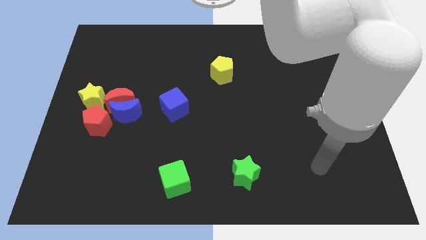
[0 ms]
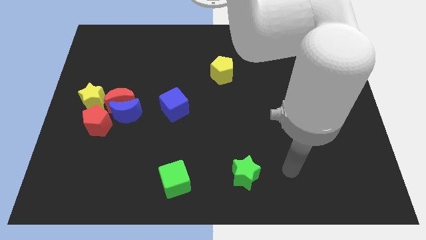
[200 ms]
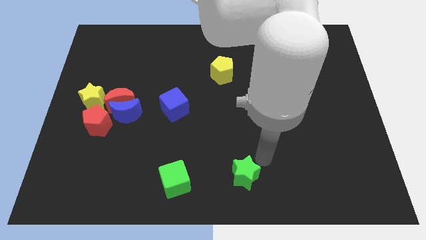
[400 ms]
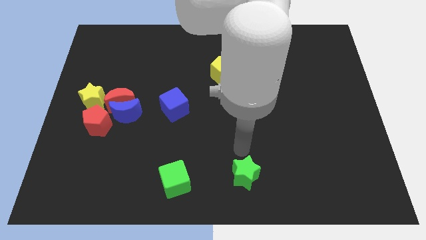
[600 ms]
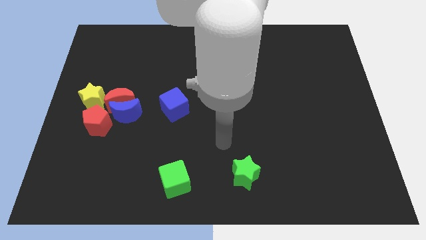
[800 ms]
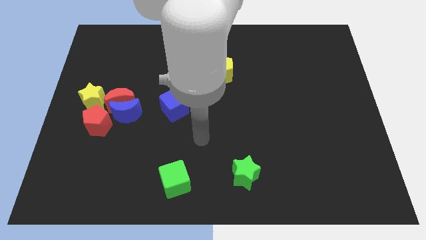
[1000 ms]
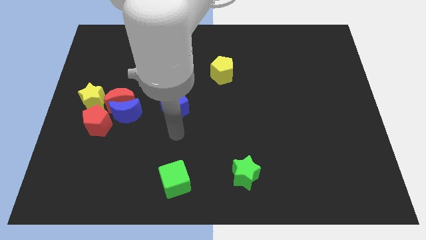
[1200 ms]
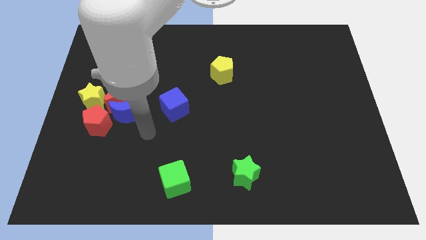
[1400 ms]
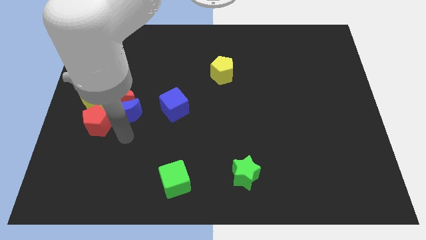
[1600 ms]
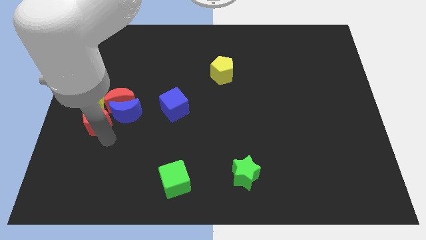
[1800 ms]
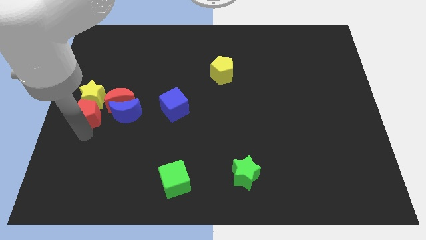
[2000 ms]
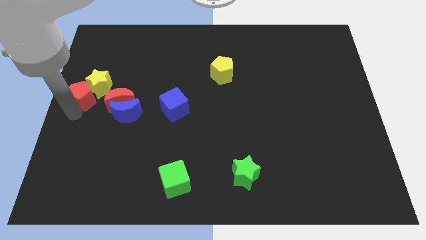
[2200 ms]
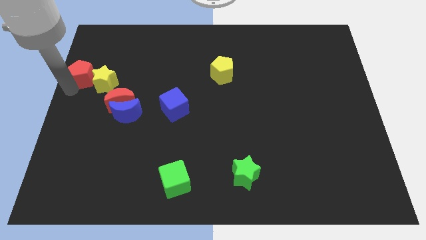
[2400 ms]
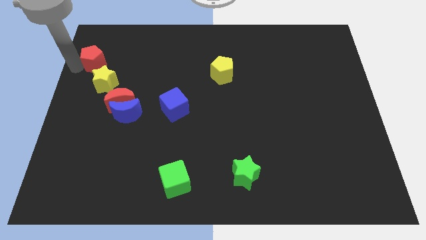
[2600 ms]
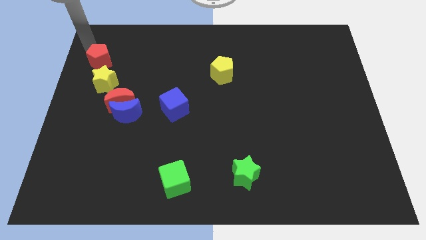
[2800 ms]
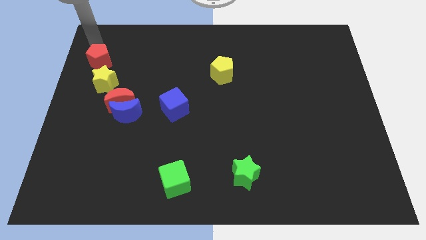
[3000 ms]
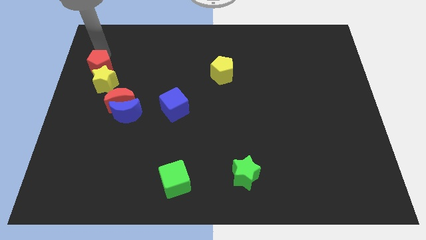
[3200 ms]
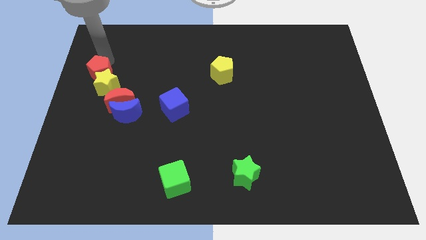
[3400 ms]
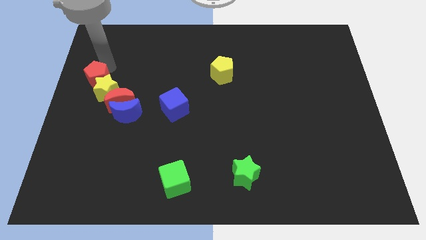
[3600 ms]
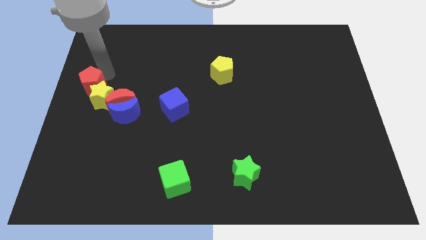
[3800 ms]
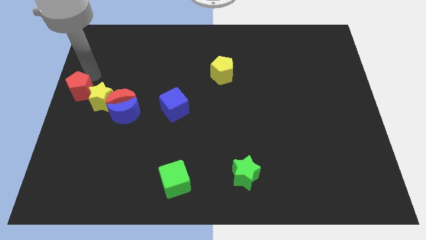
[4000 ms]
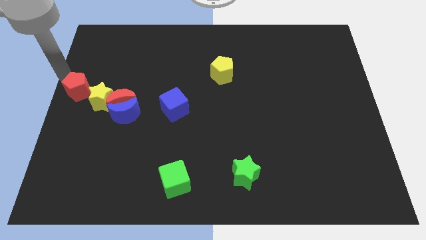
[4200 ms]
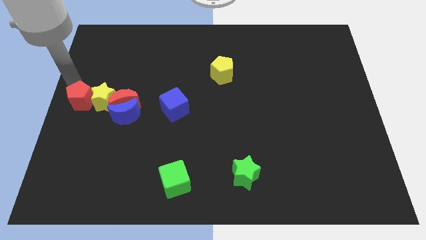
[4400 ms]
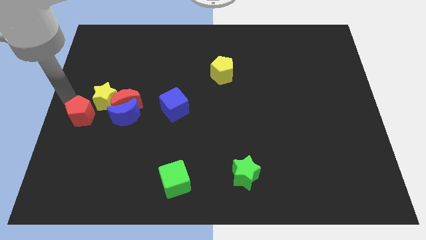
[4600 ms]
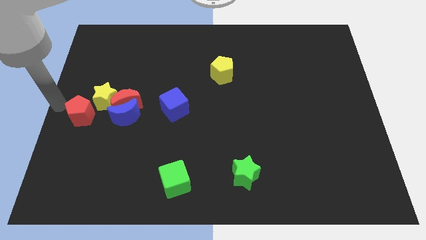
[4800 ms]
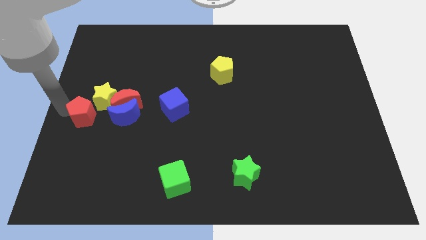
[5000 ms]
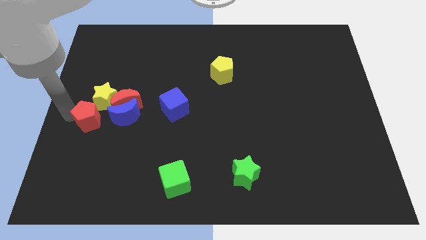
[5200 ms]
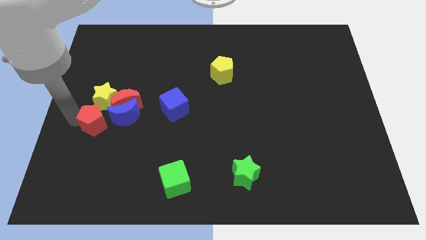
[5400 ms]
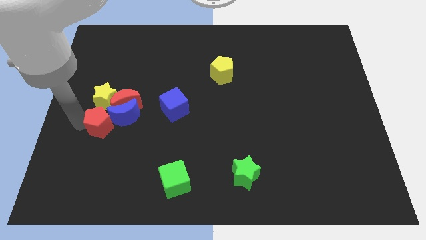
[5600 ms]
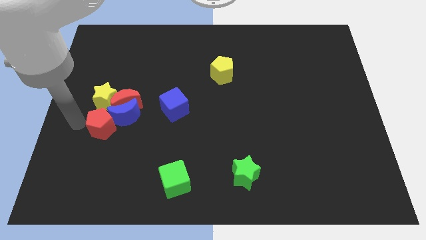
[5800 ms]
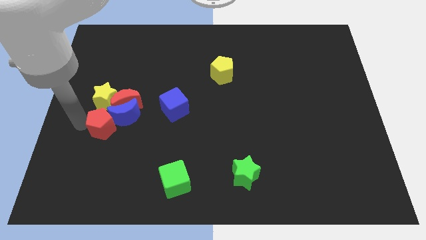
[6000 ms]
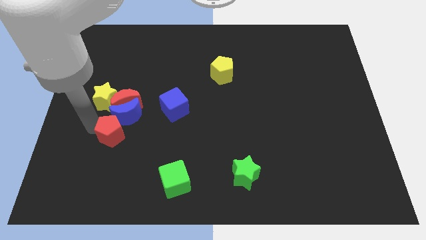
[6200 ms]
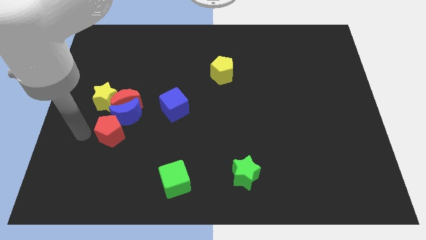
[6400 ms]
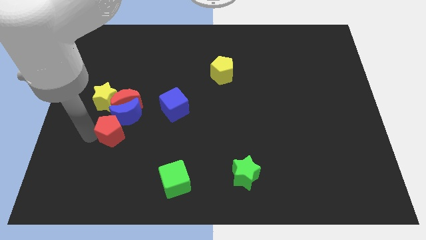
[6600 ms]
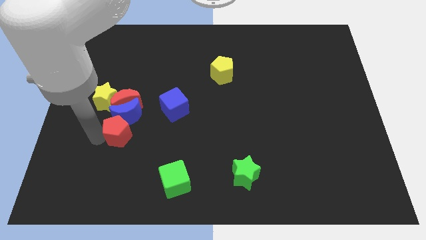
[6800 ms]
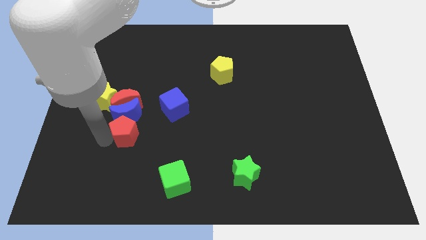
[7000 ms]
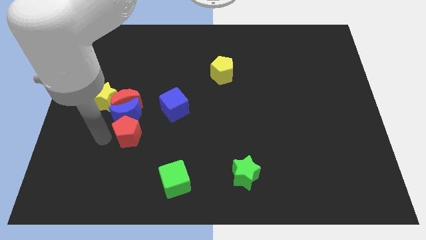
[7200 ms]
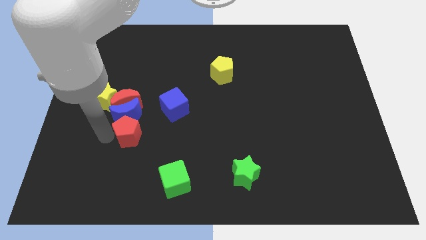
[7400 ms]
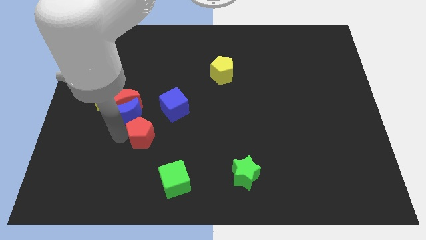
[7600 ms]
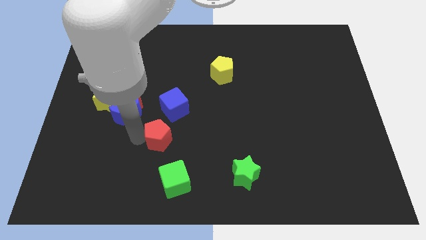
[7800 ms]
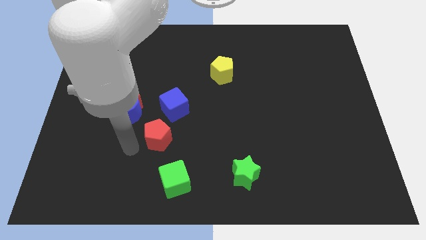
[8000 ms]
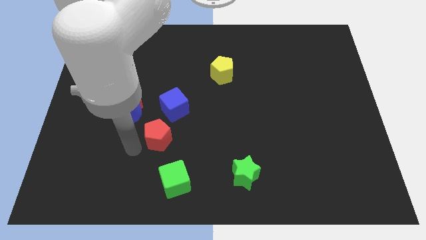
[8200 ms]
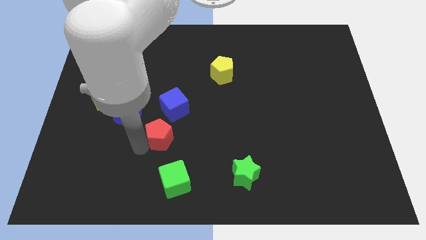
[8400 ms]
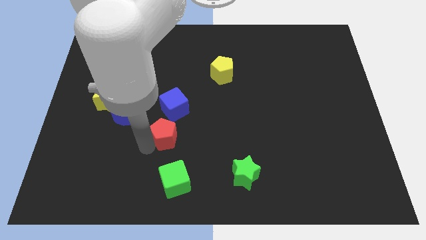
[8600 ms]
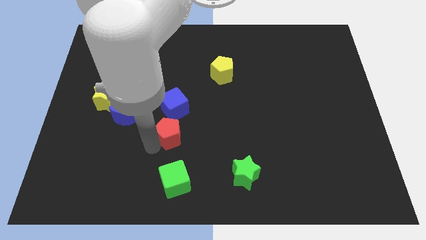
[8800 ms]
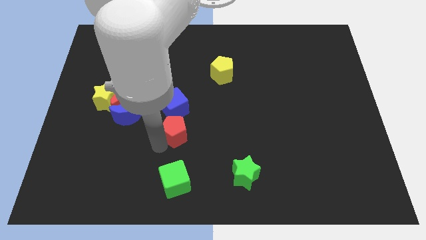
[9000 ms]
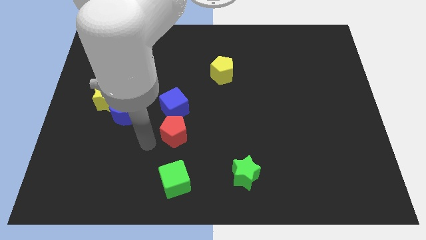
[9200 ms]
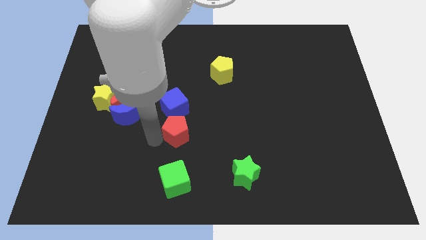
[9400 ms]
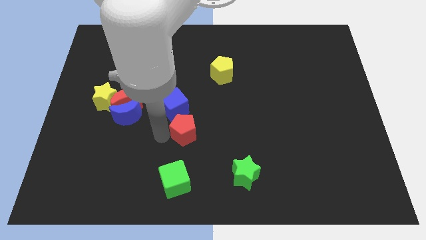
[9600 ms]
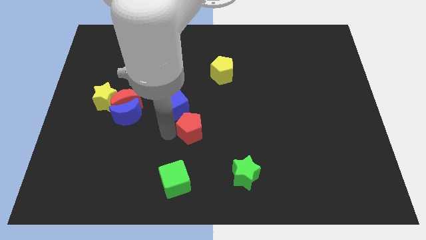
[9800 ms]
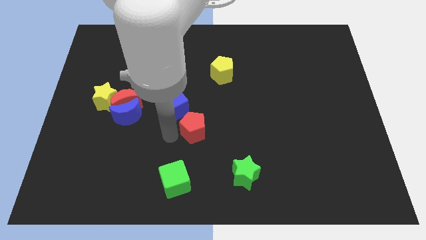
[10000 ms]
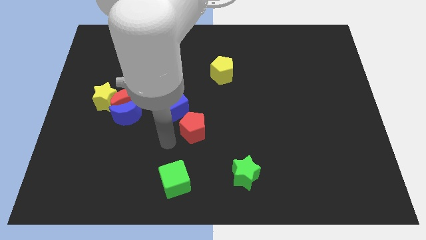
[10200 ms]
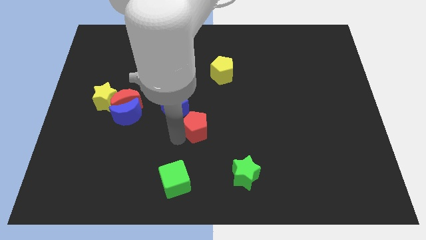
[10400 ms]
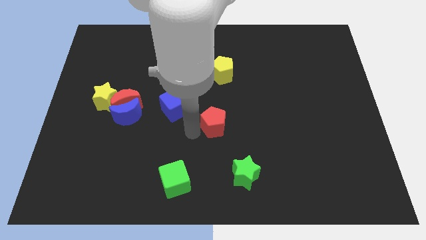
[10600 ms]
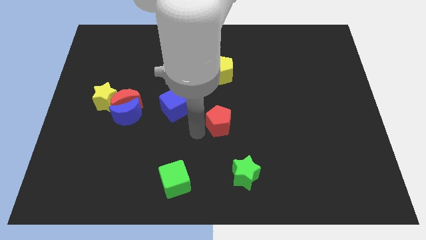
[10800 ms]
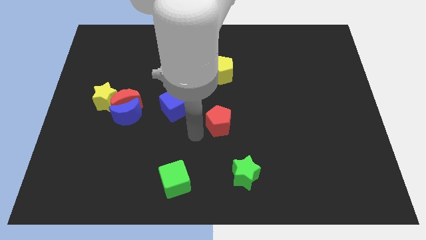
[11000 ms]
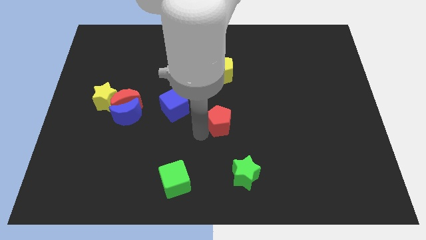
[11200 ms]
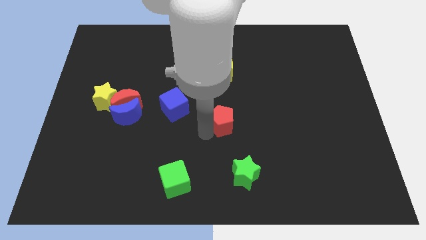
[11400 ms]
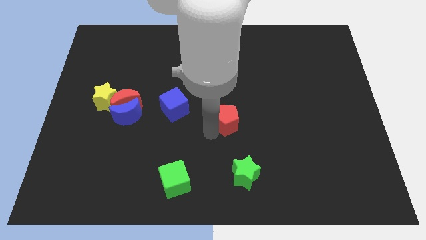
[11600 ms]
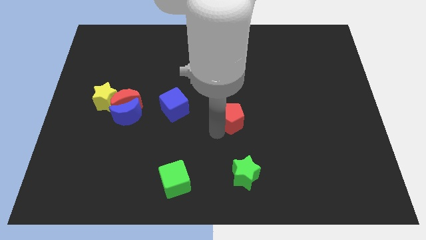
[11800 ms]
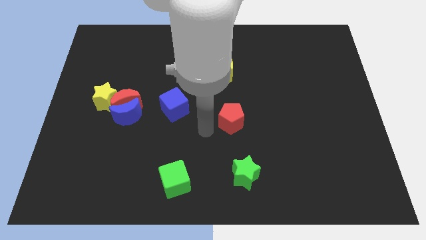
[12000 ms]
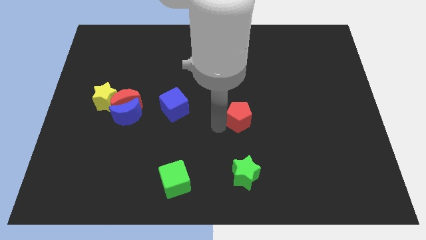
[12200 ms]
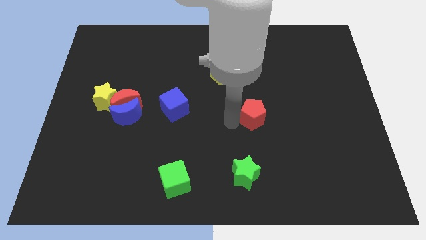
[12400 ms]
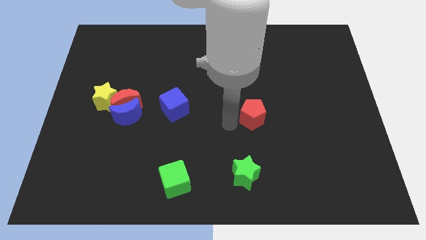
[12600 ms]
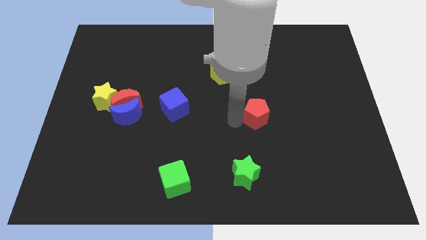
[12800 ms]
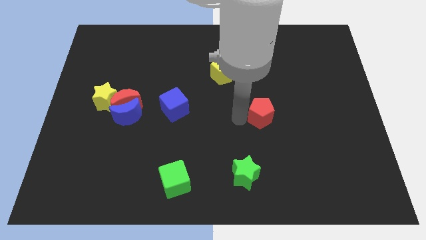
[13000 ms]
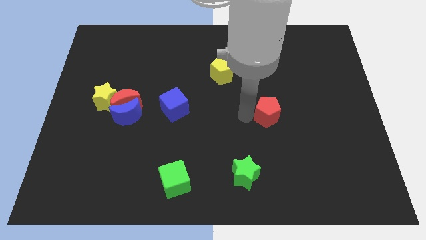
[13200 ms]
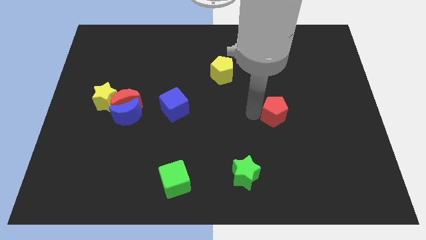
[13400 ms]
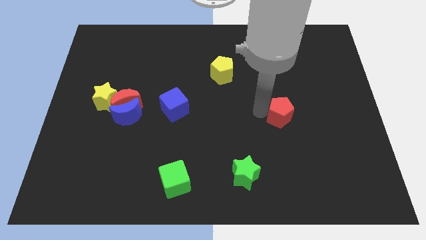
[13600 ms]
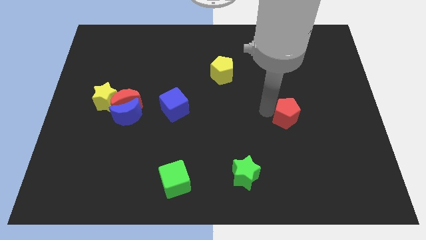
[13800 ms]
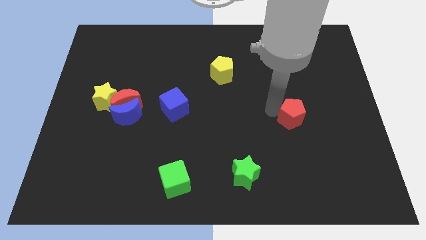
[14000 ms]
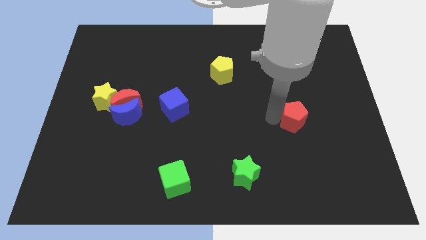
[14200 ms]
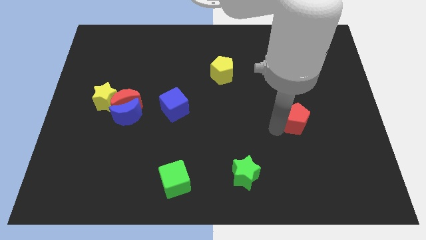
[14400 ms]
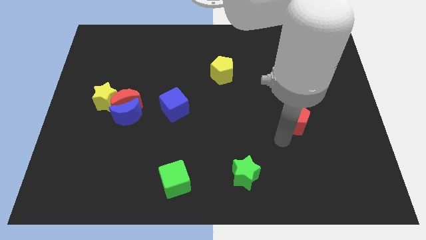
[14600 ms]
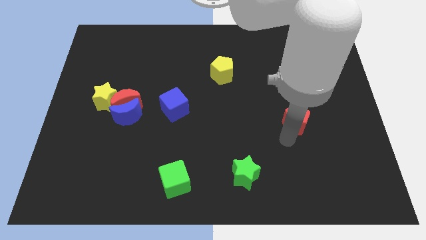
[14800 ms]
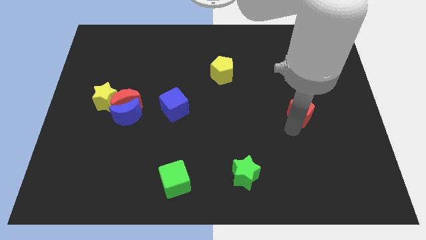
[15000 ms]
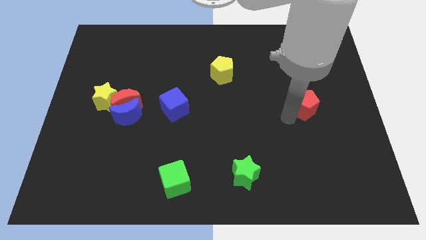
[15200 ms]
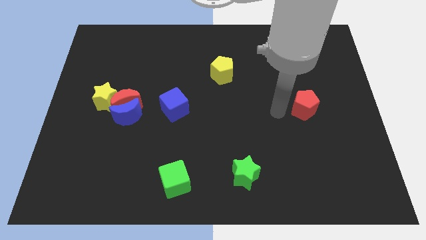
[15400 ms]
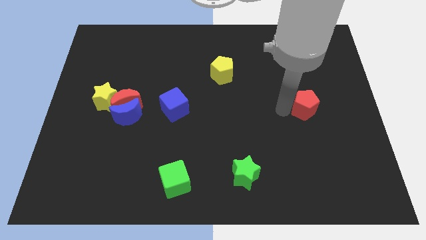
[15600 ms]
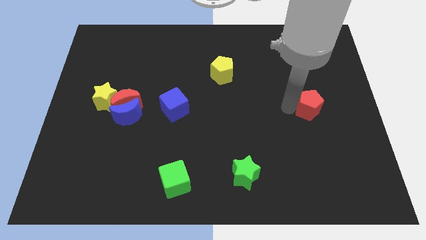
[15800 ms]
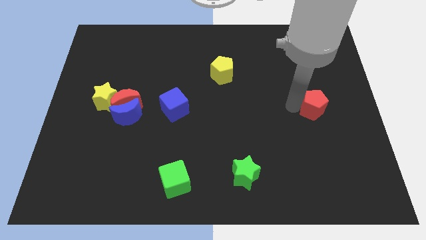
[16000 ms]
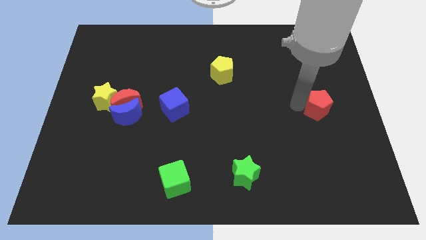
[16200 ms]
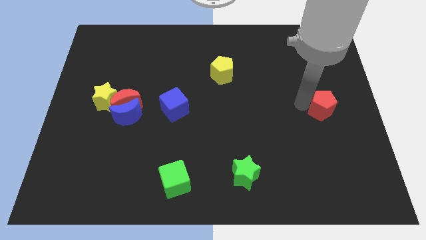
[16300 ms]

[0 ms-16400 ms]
put the red pentagon to the right side of the board
